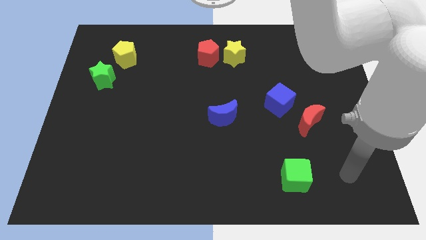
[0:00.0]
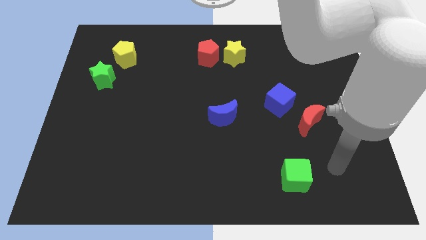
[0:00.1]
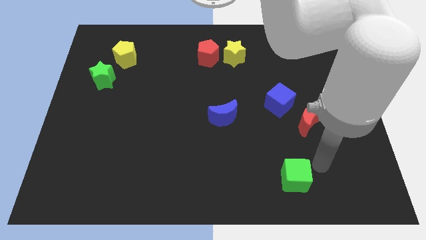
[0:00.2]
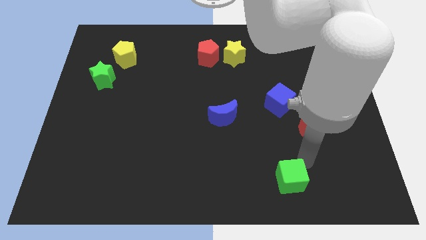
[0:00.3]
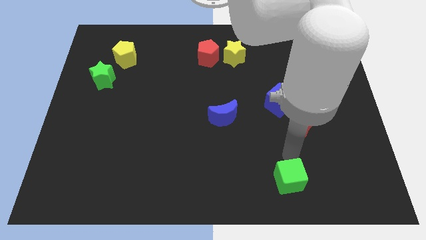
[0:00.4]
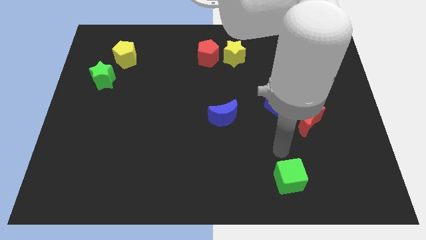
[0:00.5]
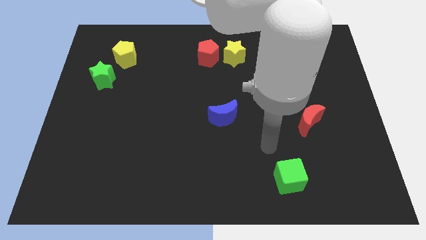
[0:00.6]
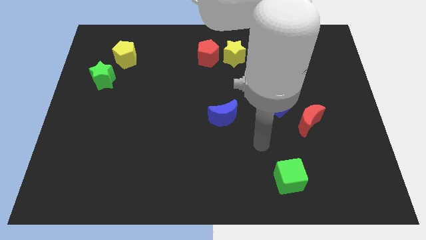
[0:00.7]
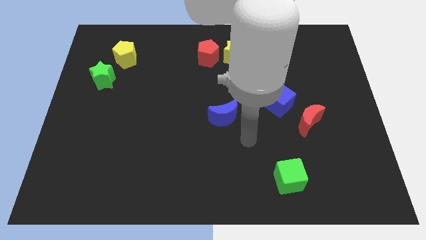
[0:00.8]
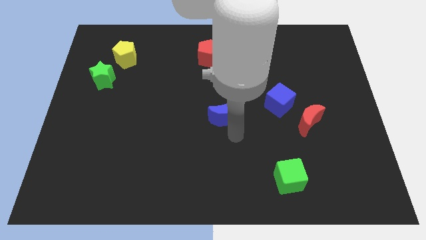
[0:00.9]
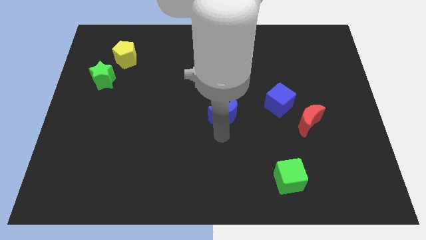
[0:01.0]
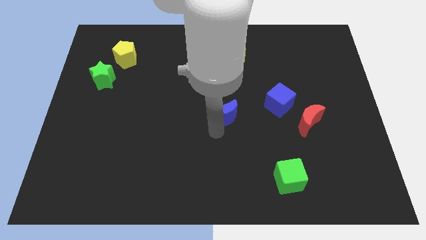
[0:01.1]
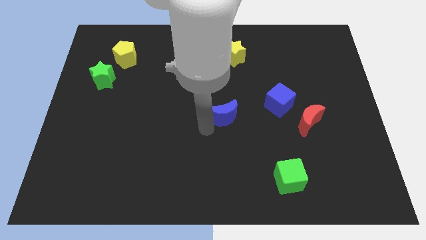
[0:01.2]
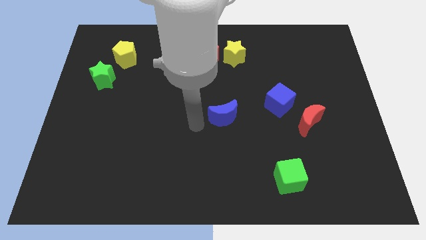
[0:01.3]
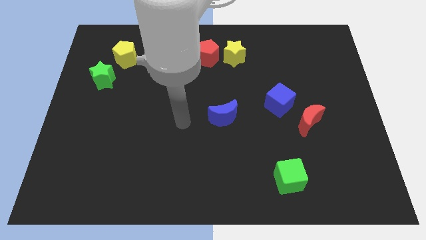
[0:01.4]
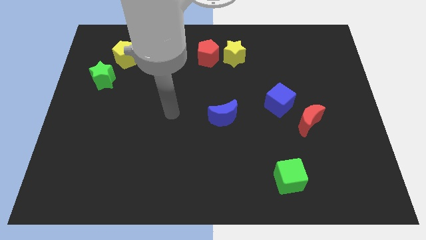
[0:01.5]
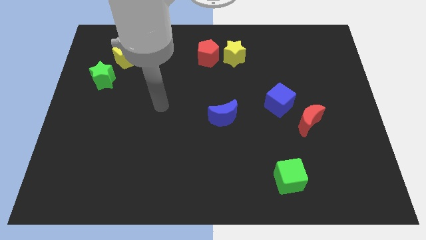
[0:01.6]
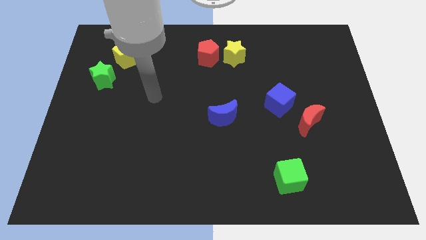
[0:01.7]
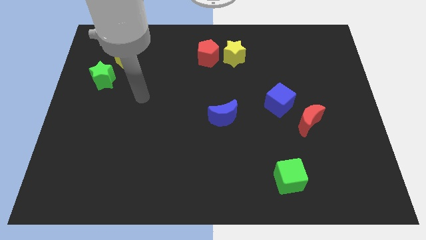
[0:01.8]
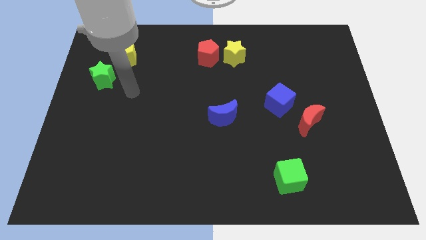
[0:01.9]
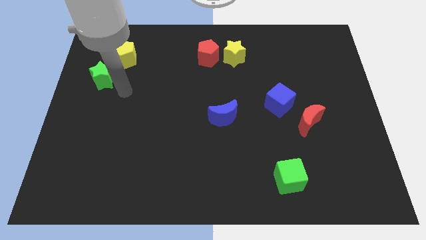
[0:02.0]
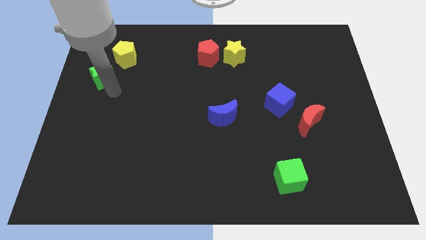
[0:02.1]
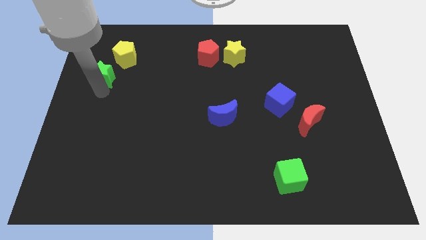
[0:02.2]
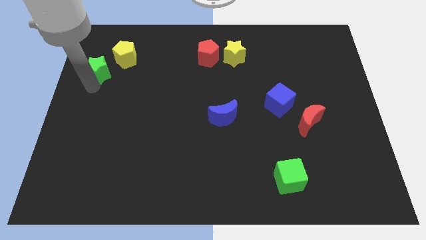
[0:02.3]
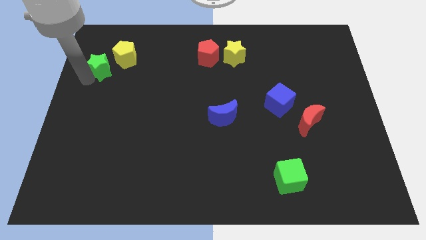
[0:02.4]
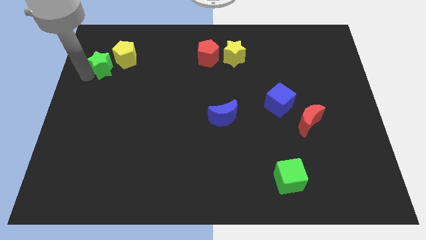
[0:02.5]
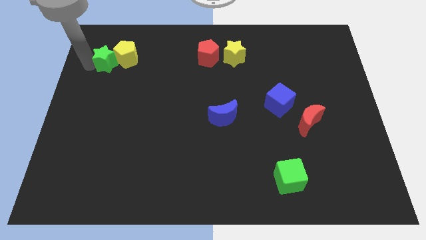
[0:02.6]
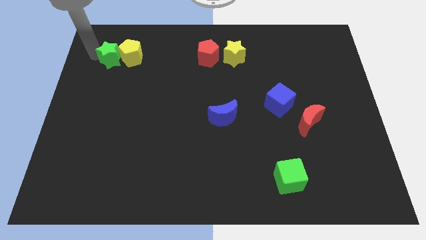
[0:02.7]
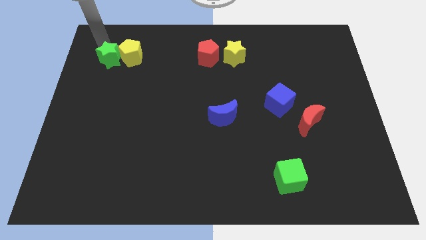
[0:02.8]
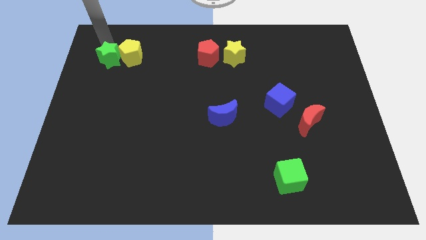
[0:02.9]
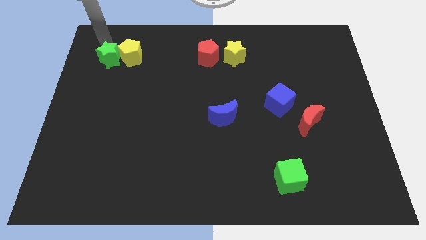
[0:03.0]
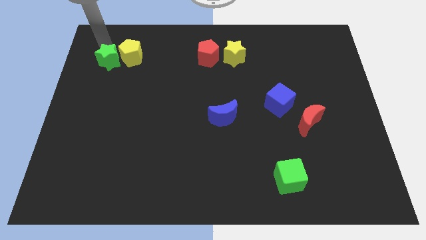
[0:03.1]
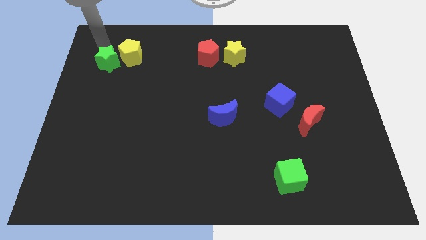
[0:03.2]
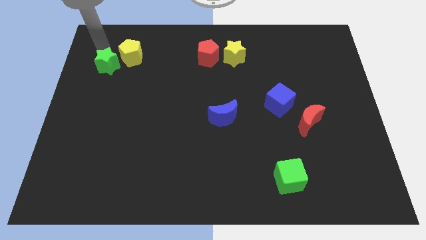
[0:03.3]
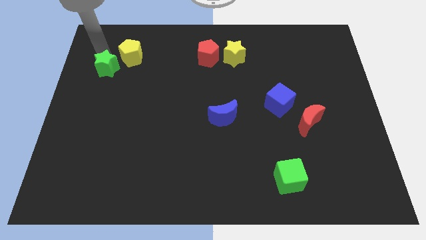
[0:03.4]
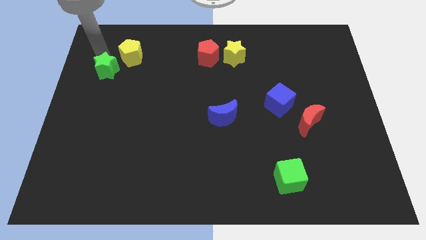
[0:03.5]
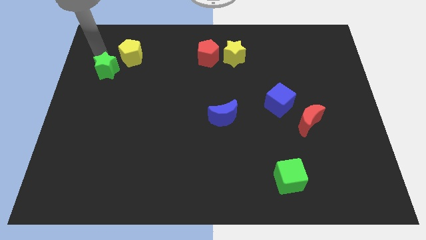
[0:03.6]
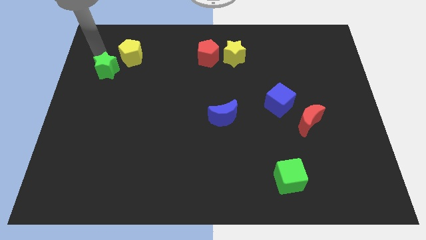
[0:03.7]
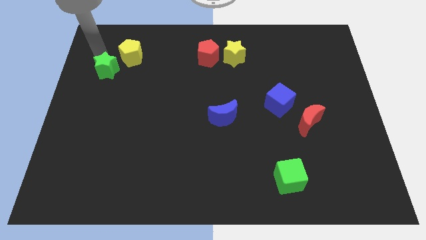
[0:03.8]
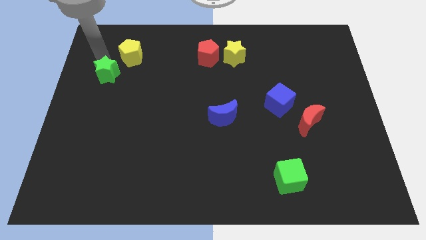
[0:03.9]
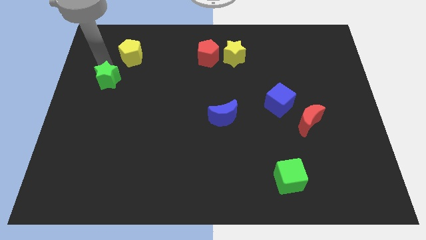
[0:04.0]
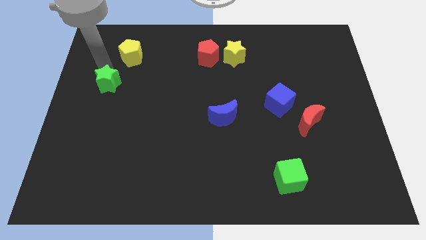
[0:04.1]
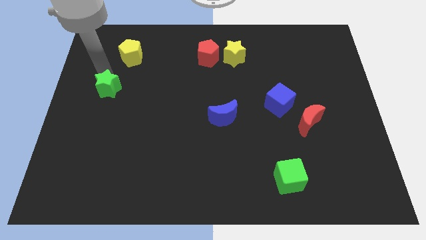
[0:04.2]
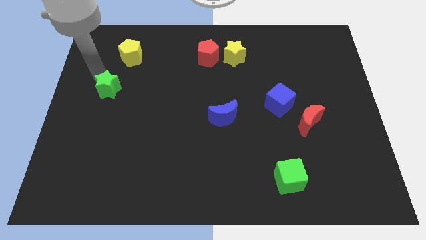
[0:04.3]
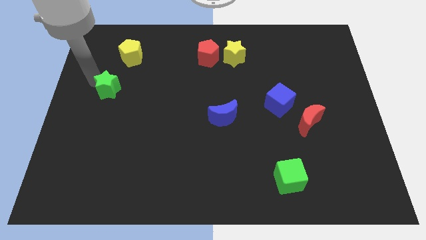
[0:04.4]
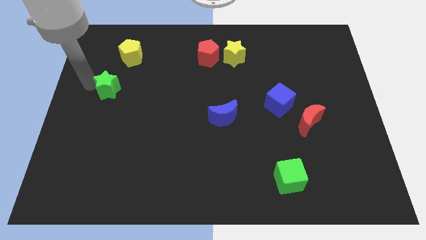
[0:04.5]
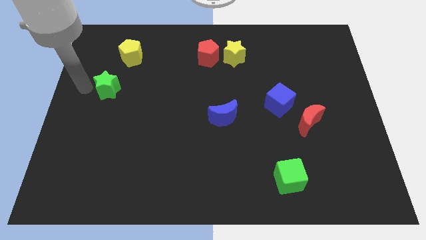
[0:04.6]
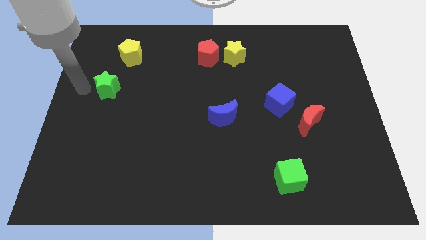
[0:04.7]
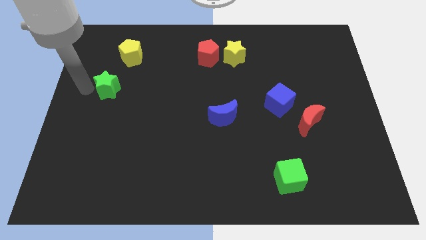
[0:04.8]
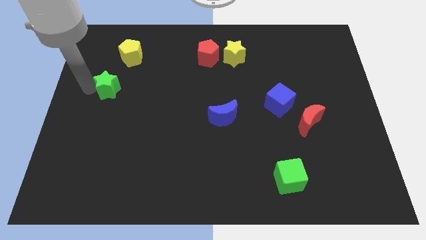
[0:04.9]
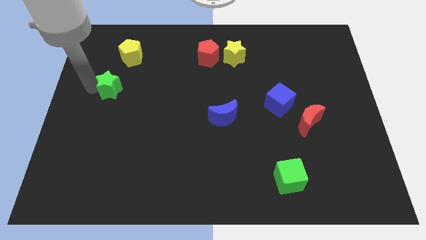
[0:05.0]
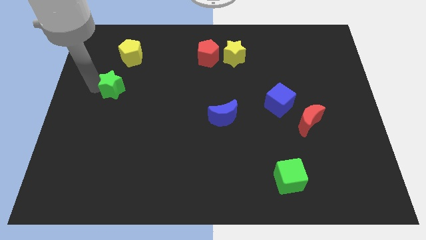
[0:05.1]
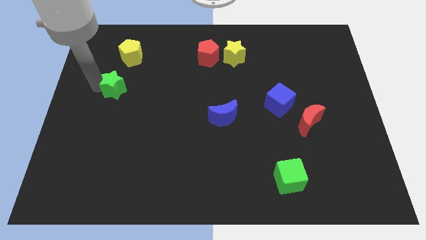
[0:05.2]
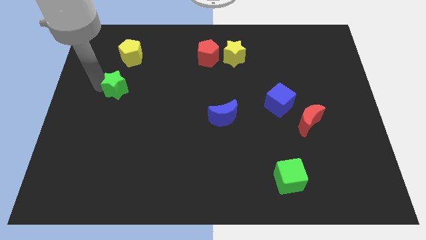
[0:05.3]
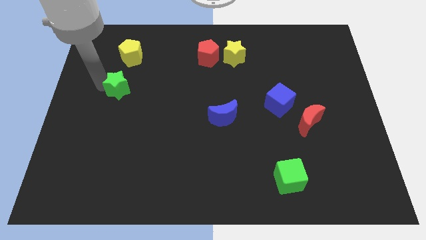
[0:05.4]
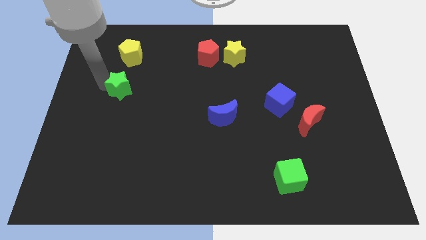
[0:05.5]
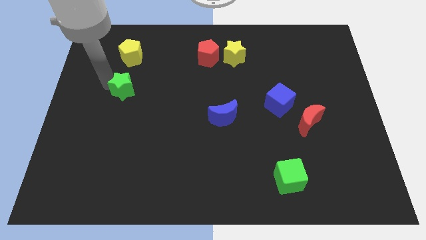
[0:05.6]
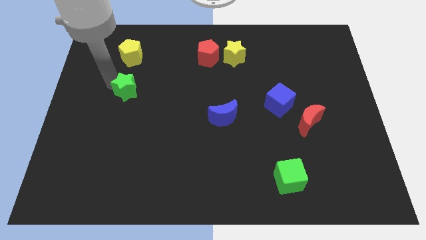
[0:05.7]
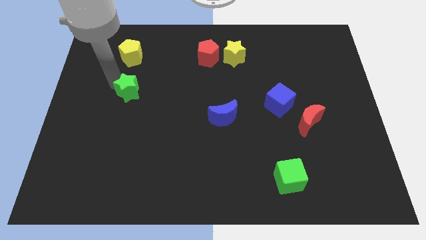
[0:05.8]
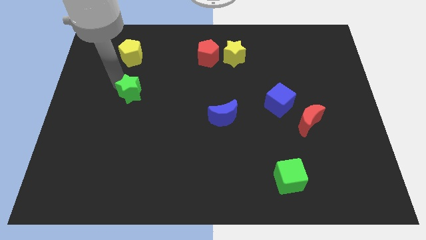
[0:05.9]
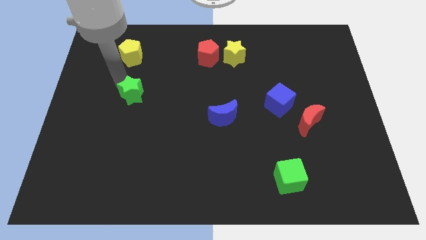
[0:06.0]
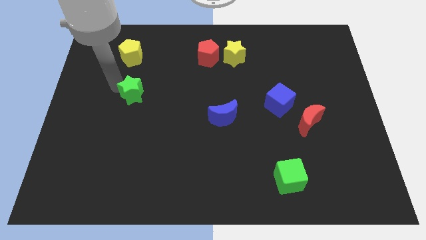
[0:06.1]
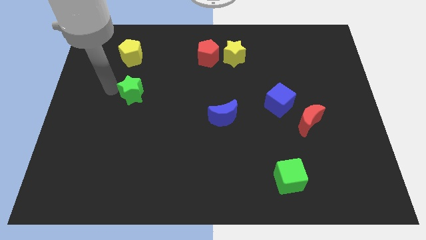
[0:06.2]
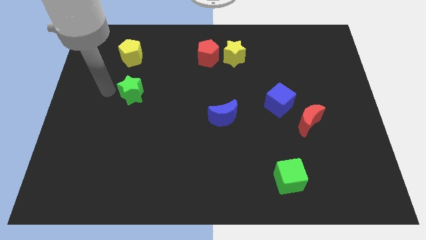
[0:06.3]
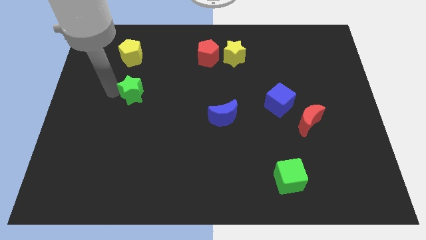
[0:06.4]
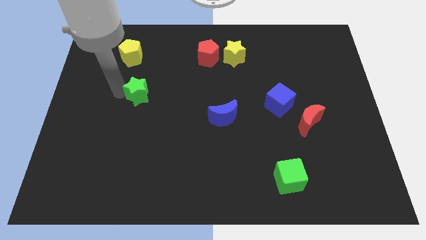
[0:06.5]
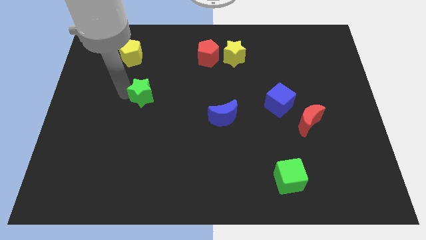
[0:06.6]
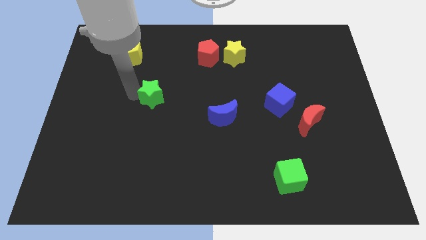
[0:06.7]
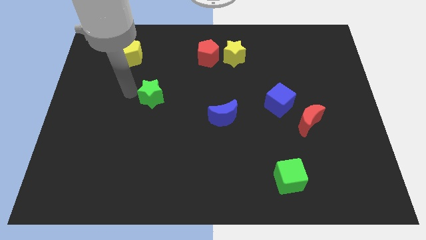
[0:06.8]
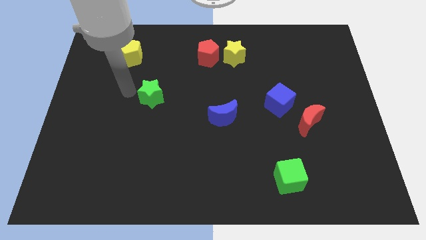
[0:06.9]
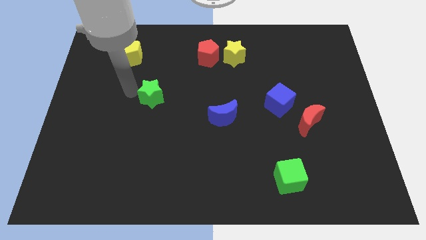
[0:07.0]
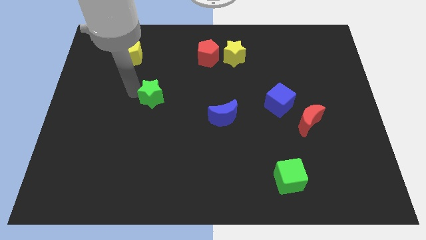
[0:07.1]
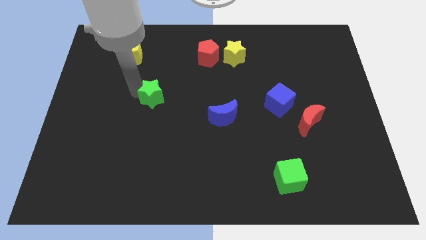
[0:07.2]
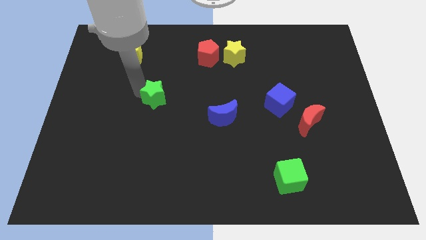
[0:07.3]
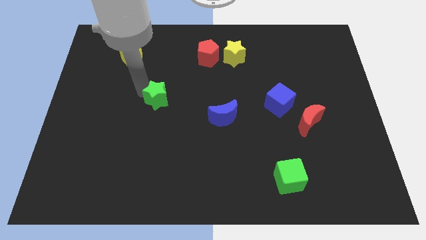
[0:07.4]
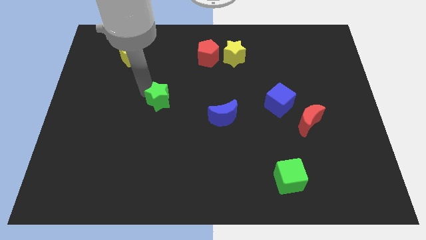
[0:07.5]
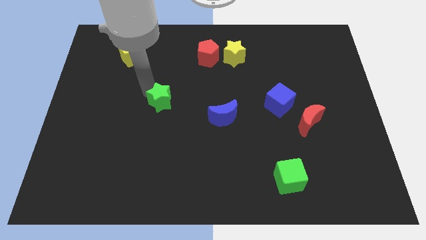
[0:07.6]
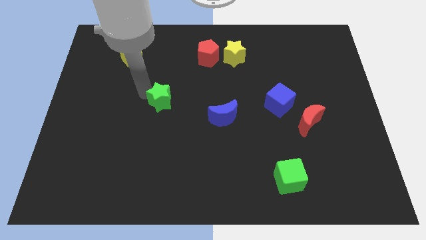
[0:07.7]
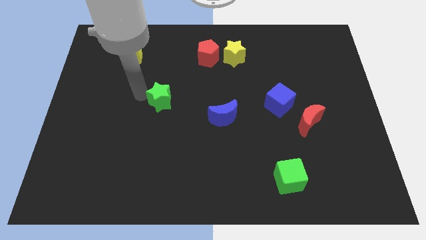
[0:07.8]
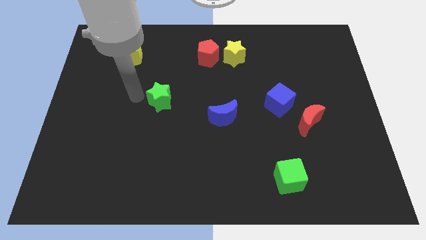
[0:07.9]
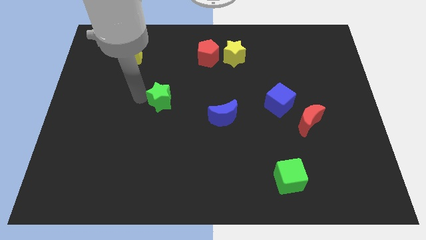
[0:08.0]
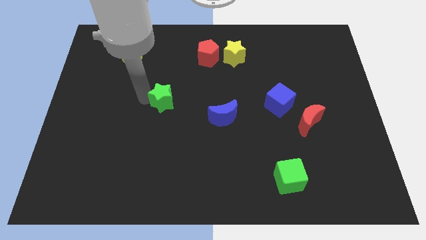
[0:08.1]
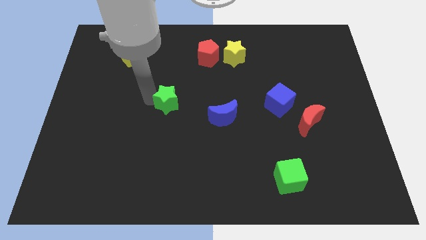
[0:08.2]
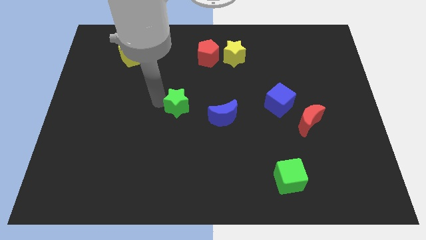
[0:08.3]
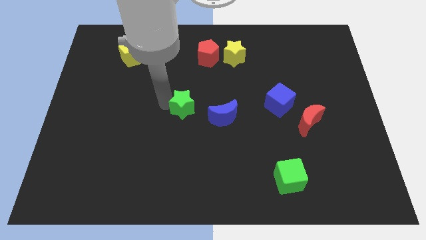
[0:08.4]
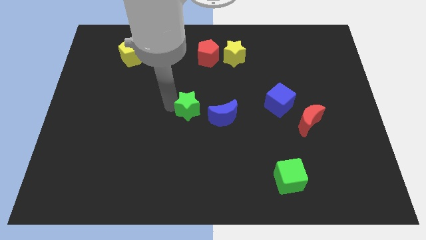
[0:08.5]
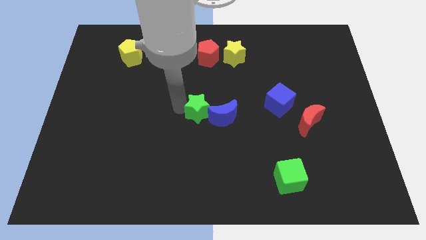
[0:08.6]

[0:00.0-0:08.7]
put the green star close to the blue moon

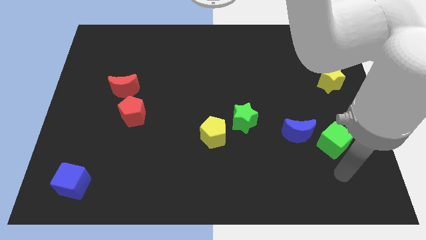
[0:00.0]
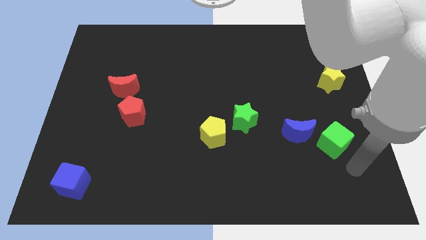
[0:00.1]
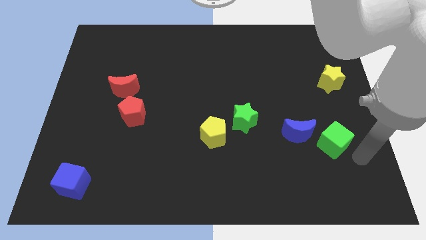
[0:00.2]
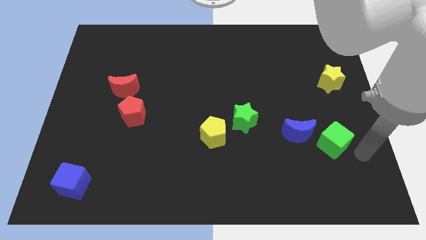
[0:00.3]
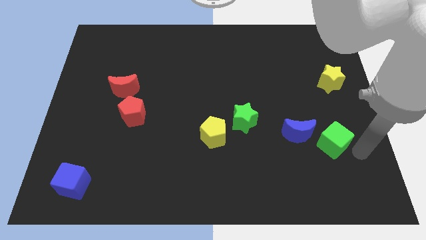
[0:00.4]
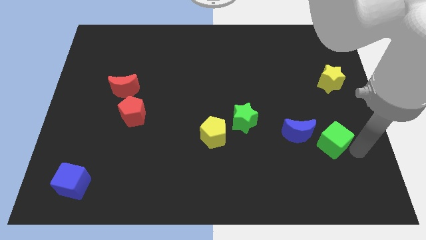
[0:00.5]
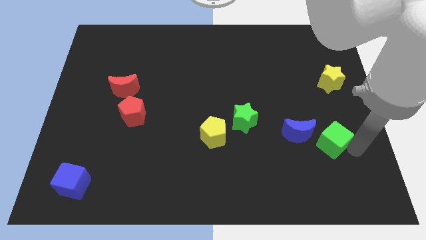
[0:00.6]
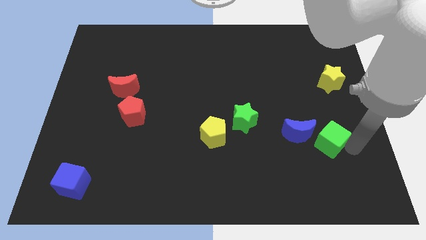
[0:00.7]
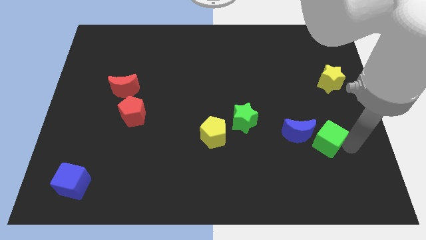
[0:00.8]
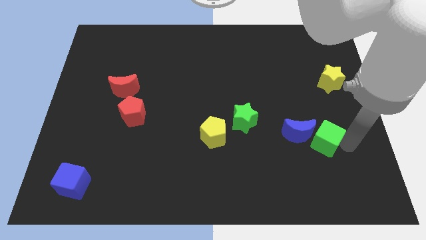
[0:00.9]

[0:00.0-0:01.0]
slide the green cube towards the blue moon
